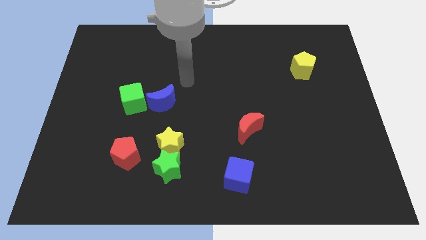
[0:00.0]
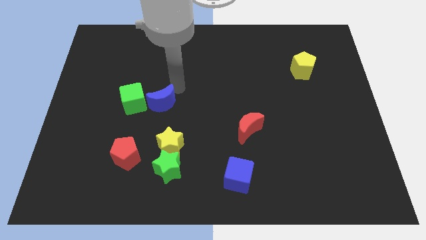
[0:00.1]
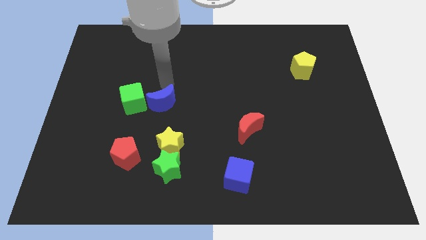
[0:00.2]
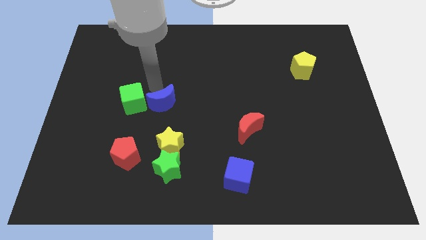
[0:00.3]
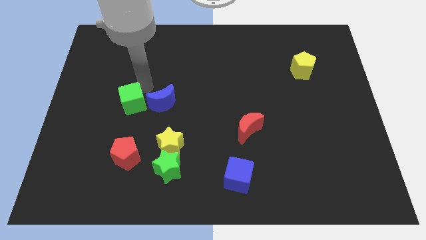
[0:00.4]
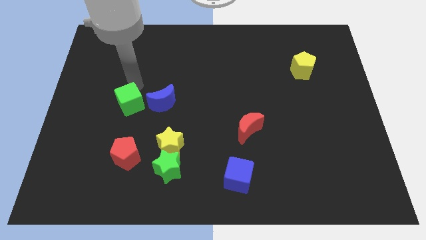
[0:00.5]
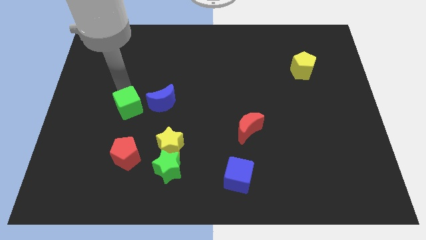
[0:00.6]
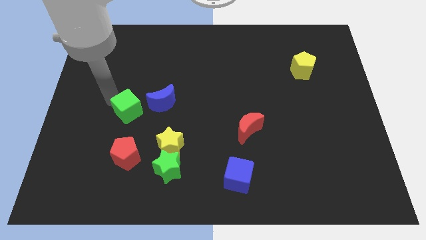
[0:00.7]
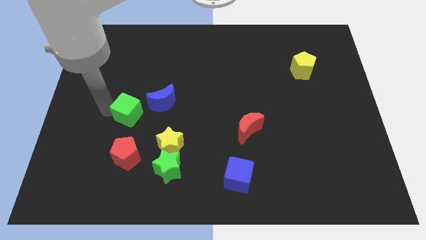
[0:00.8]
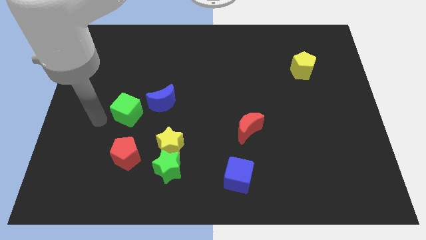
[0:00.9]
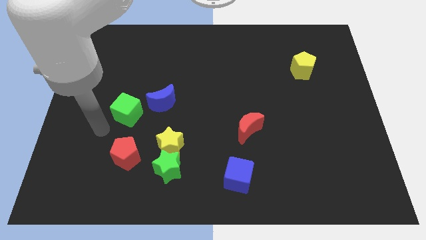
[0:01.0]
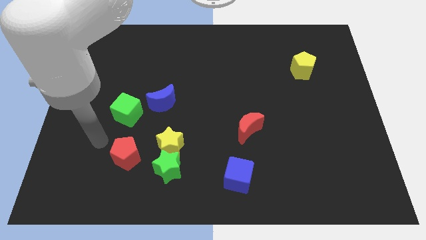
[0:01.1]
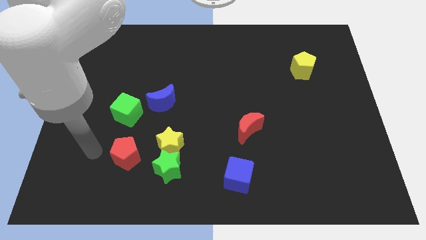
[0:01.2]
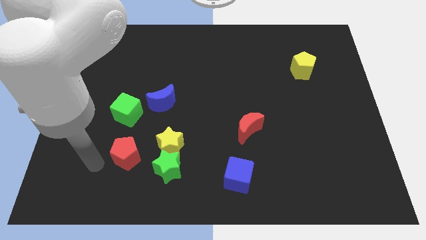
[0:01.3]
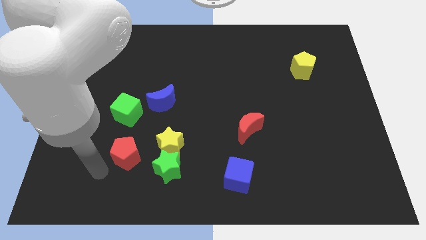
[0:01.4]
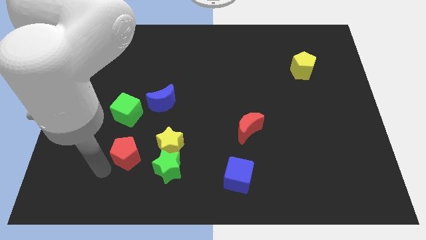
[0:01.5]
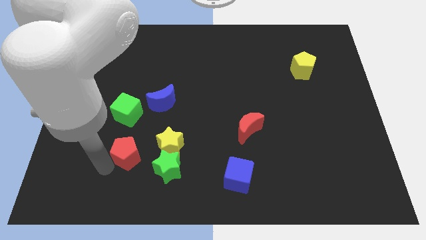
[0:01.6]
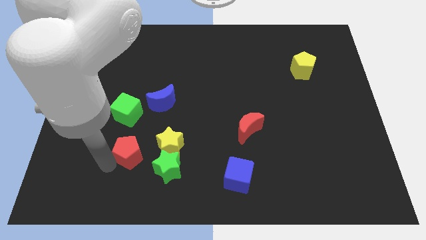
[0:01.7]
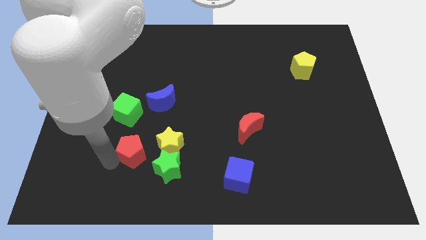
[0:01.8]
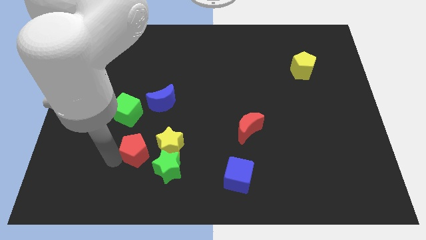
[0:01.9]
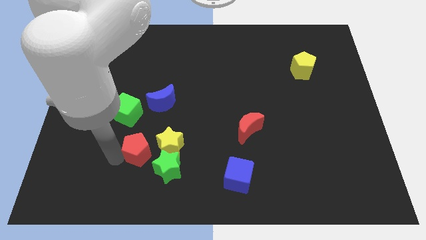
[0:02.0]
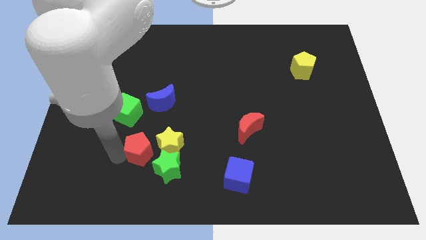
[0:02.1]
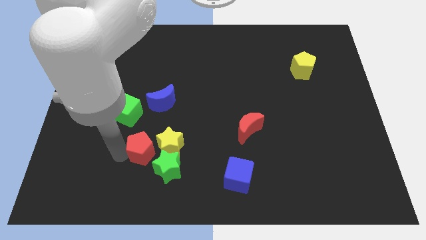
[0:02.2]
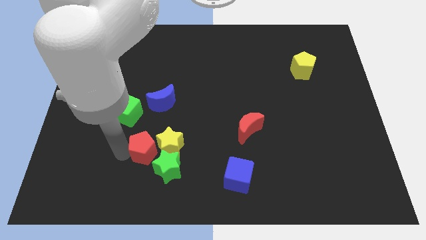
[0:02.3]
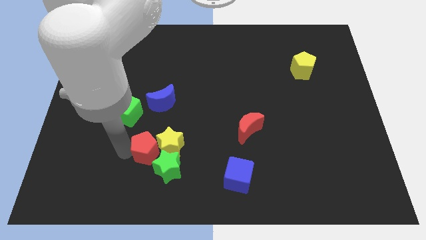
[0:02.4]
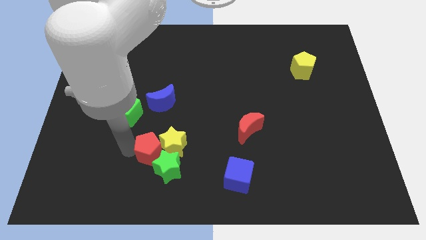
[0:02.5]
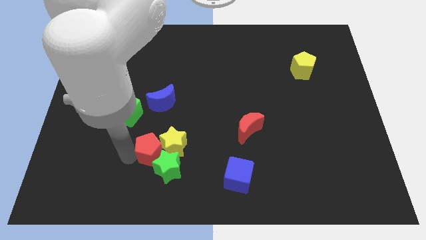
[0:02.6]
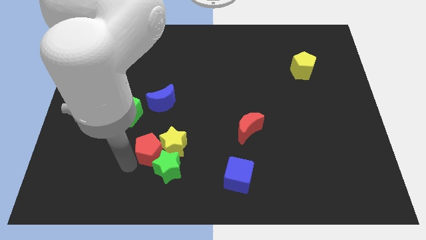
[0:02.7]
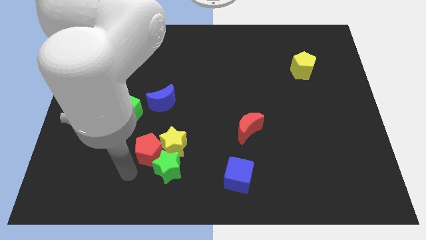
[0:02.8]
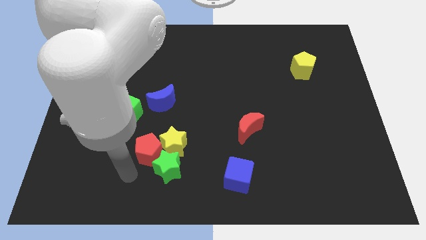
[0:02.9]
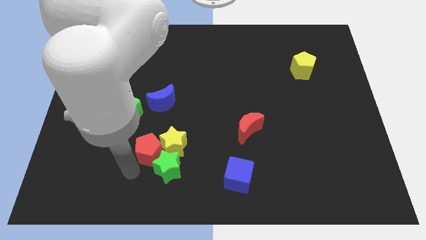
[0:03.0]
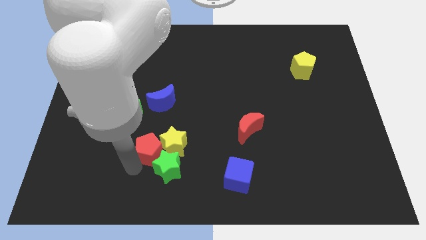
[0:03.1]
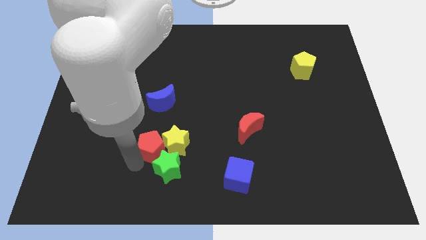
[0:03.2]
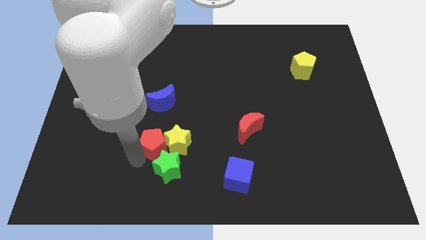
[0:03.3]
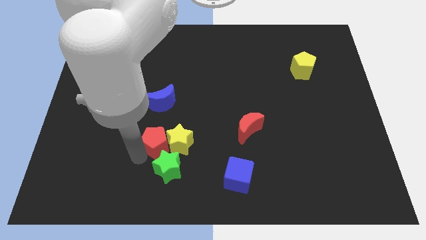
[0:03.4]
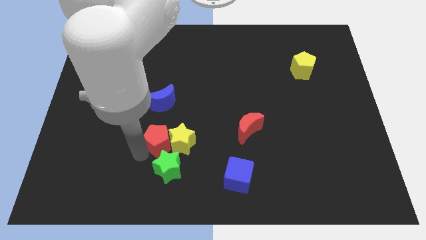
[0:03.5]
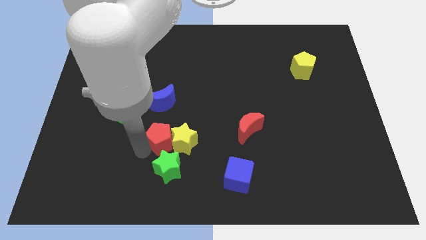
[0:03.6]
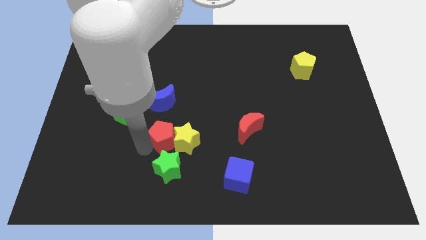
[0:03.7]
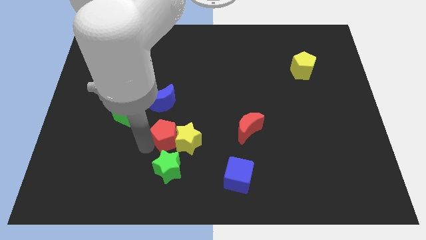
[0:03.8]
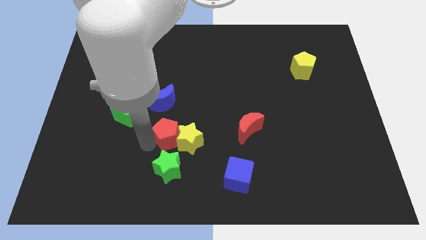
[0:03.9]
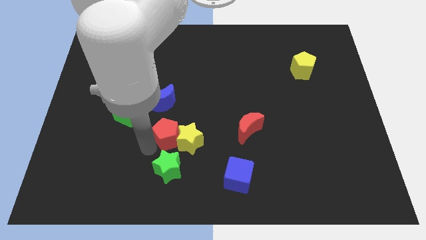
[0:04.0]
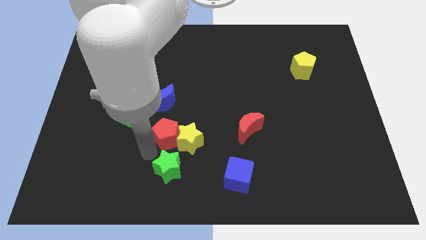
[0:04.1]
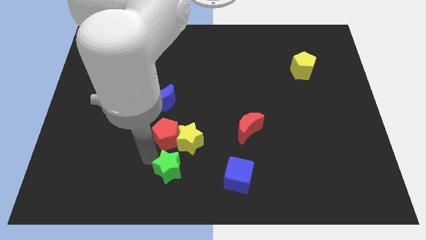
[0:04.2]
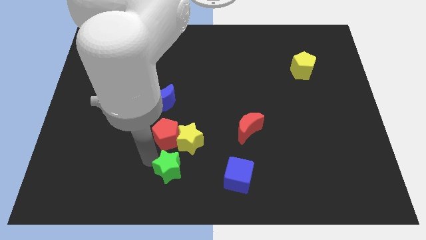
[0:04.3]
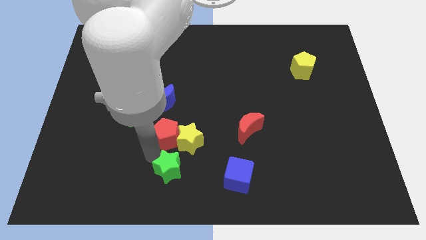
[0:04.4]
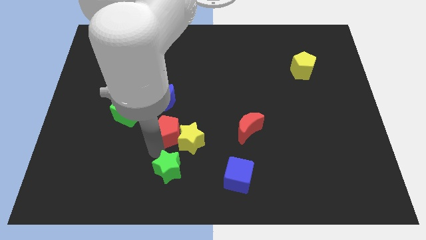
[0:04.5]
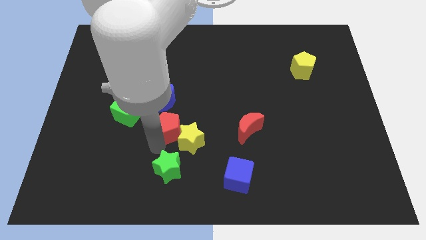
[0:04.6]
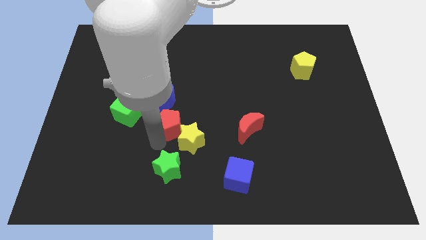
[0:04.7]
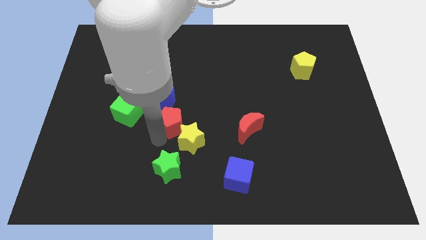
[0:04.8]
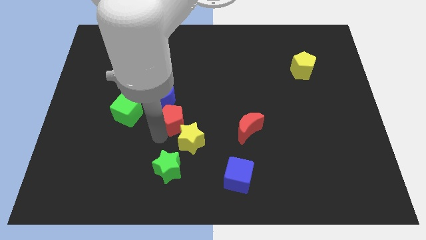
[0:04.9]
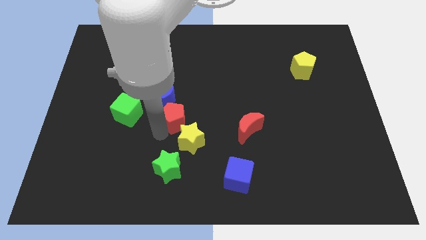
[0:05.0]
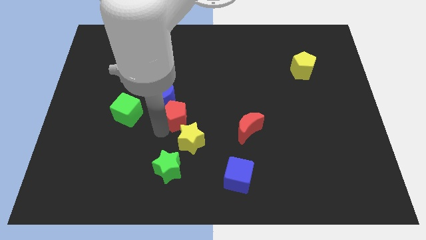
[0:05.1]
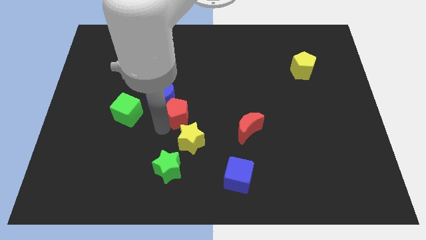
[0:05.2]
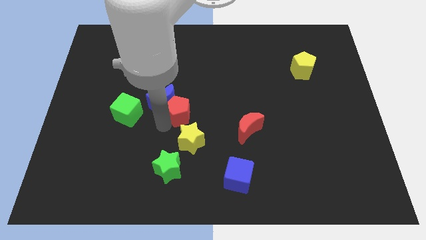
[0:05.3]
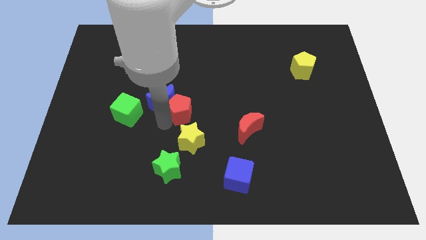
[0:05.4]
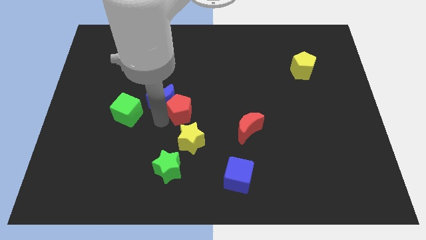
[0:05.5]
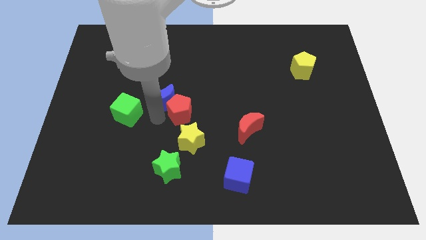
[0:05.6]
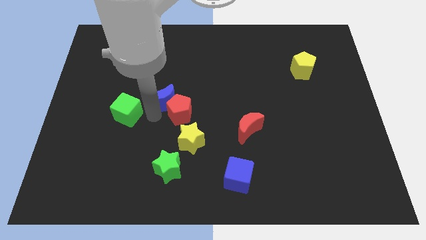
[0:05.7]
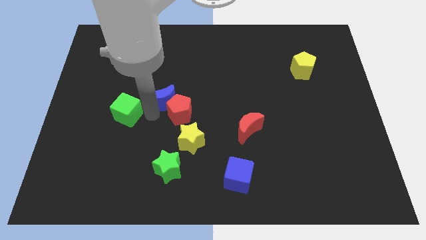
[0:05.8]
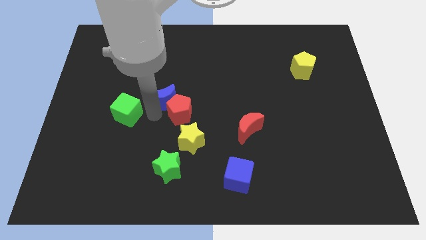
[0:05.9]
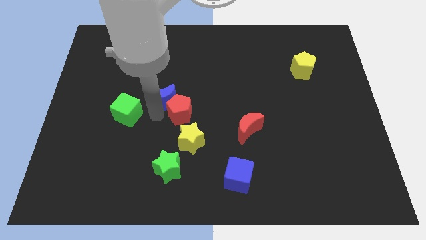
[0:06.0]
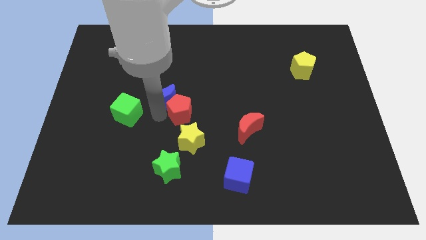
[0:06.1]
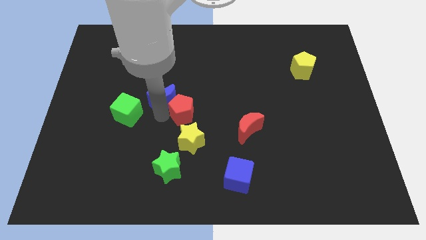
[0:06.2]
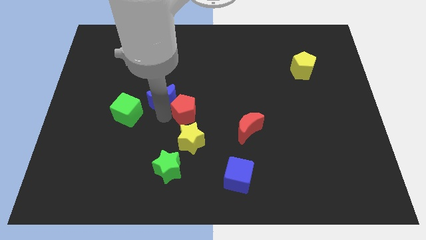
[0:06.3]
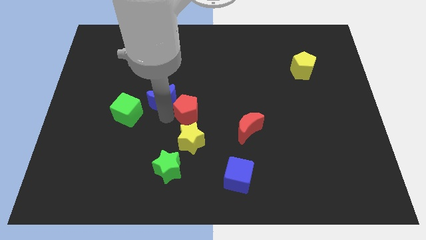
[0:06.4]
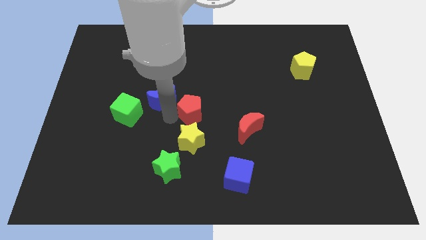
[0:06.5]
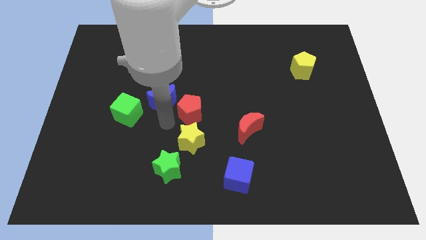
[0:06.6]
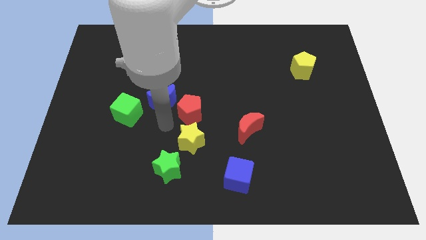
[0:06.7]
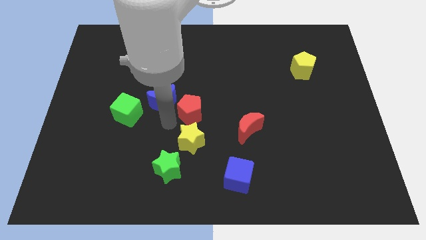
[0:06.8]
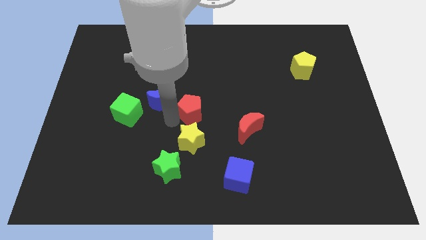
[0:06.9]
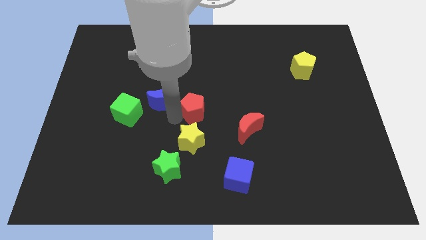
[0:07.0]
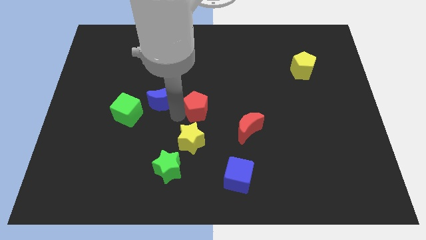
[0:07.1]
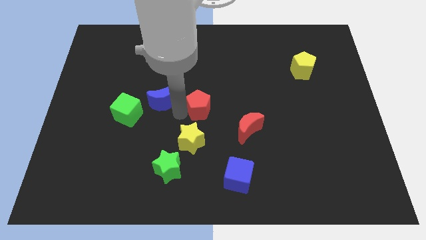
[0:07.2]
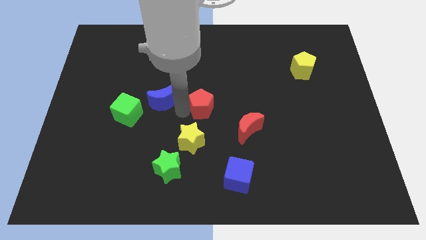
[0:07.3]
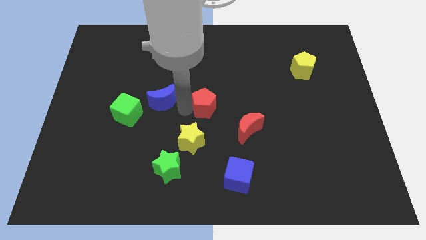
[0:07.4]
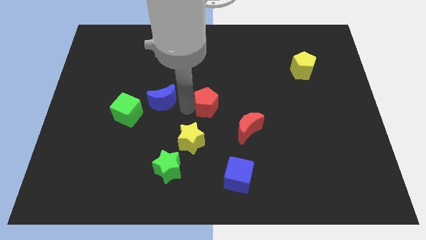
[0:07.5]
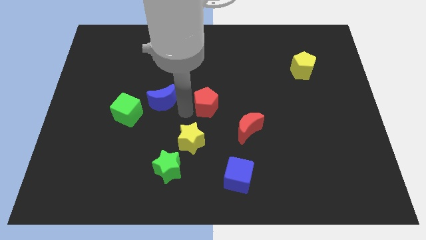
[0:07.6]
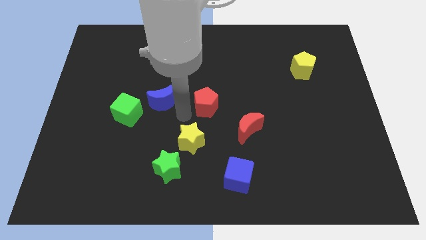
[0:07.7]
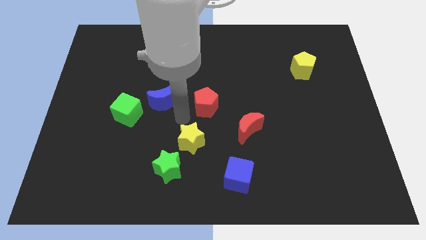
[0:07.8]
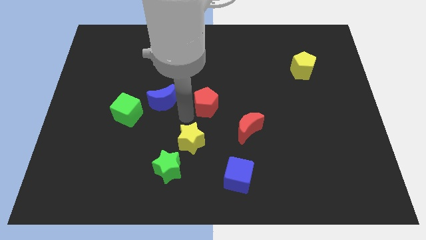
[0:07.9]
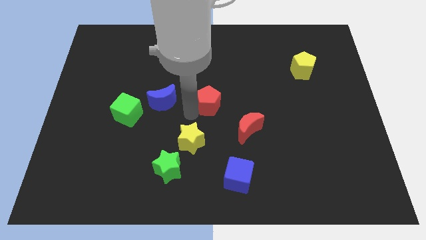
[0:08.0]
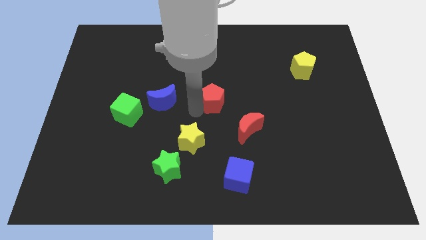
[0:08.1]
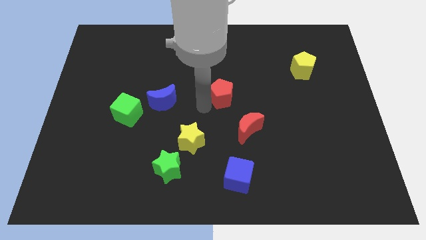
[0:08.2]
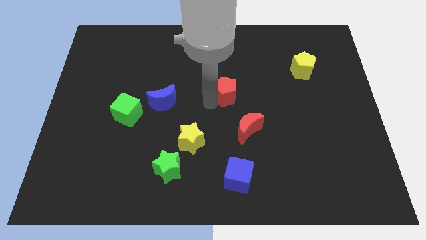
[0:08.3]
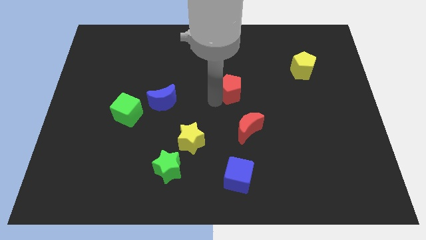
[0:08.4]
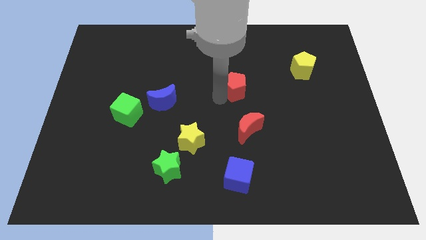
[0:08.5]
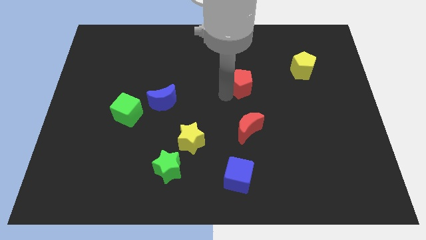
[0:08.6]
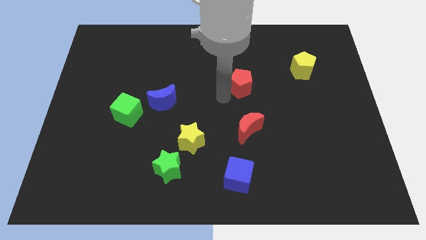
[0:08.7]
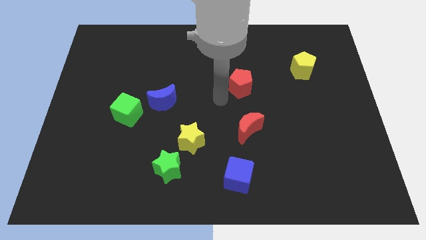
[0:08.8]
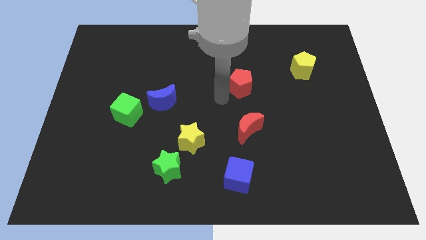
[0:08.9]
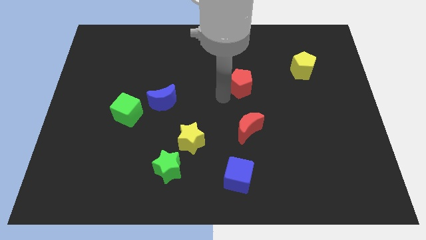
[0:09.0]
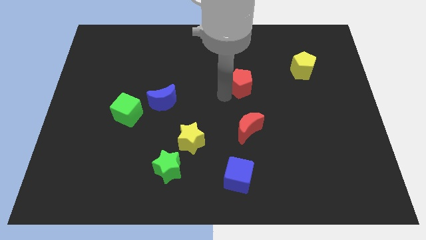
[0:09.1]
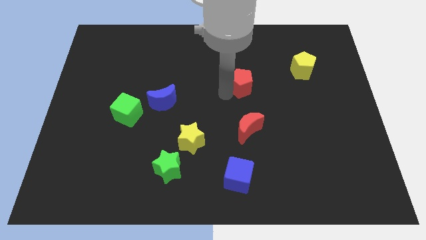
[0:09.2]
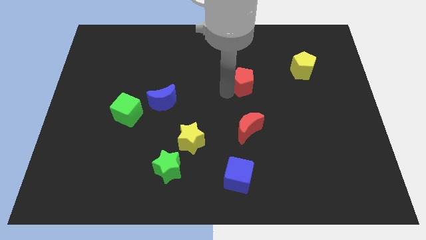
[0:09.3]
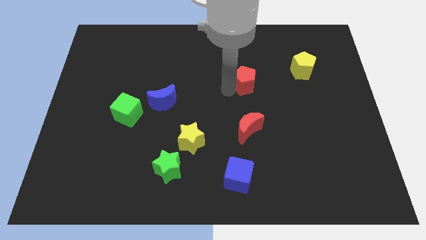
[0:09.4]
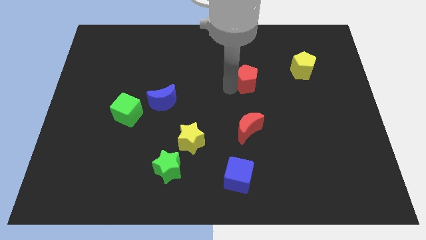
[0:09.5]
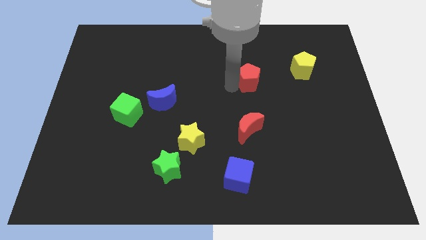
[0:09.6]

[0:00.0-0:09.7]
push the red pentagon left of the yellow pentagon
